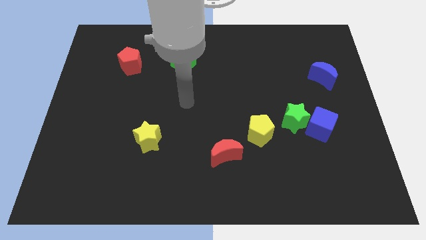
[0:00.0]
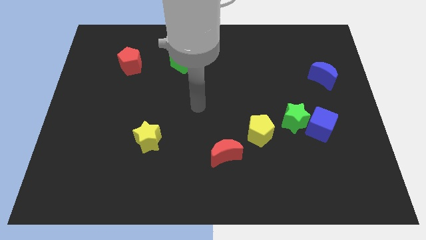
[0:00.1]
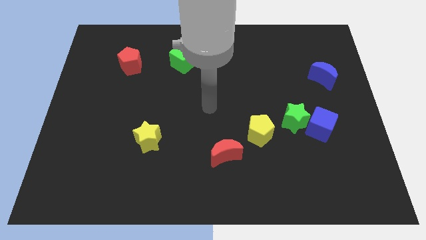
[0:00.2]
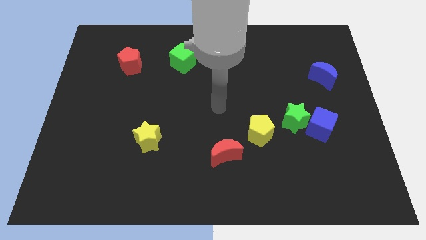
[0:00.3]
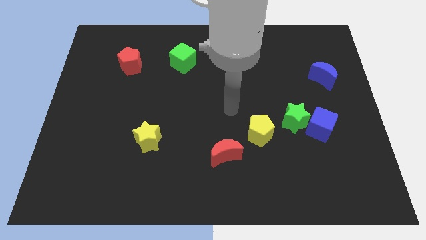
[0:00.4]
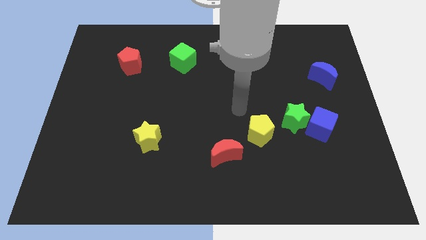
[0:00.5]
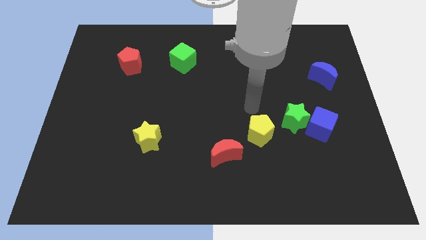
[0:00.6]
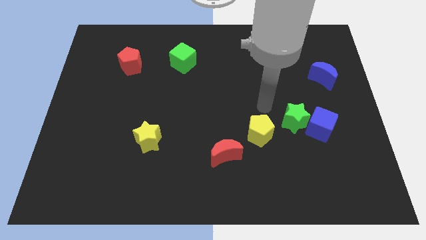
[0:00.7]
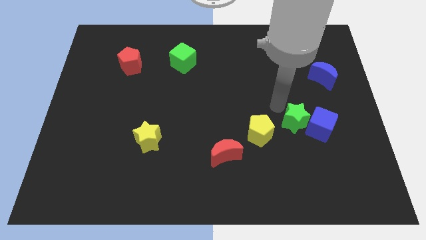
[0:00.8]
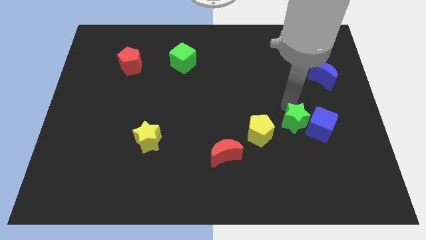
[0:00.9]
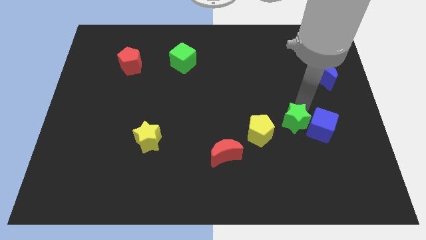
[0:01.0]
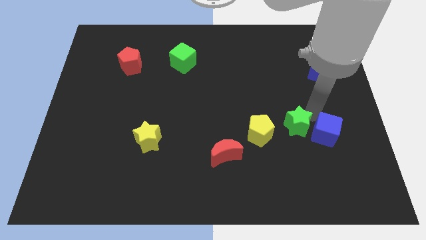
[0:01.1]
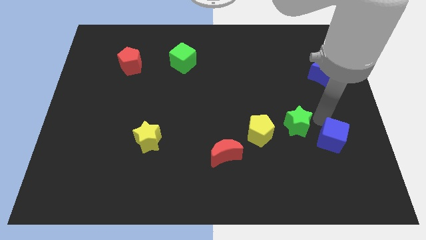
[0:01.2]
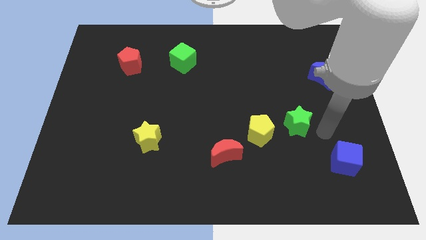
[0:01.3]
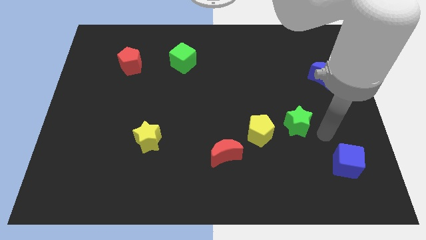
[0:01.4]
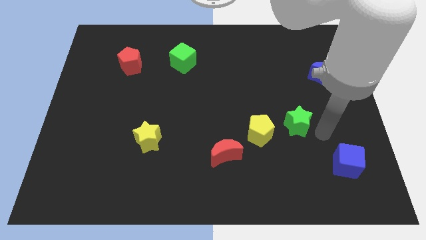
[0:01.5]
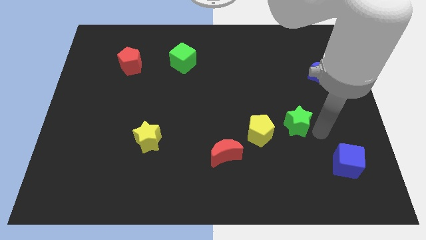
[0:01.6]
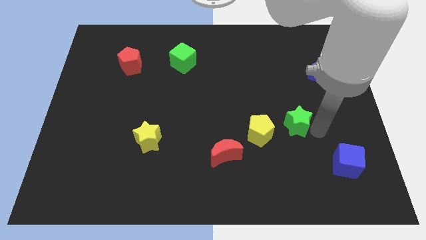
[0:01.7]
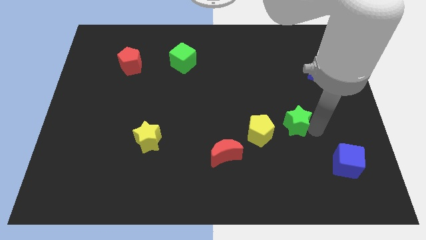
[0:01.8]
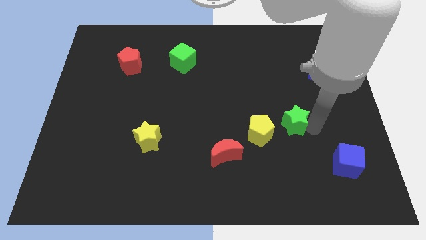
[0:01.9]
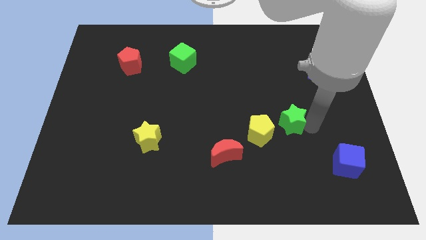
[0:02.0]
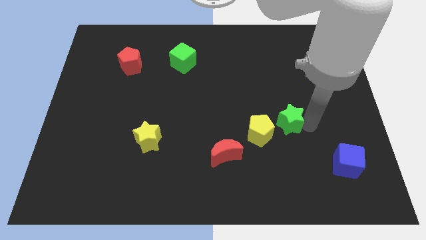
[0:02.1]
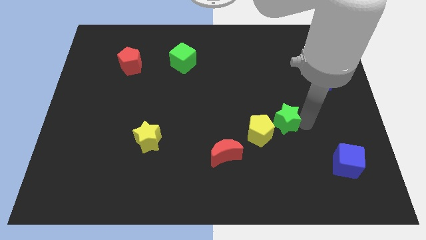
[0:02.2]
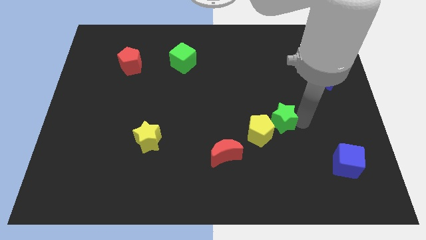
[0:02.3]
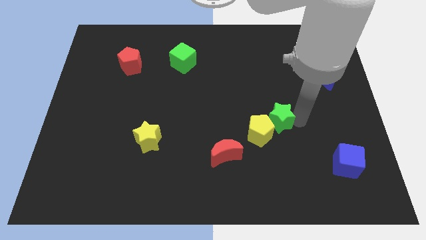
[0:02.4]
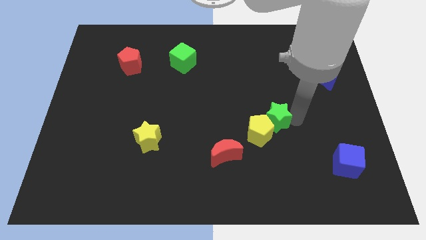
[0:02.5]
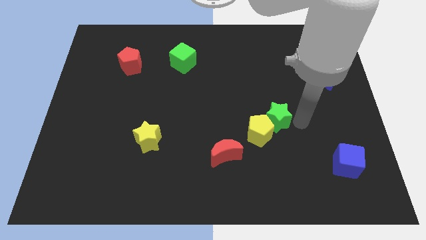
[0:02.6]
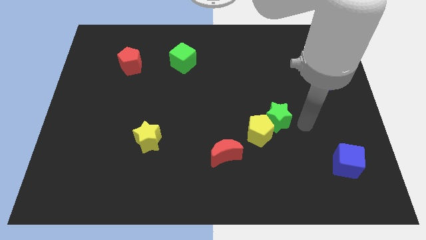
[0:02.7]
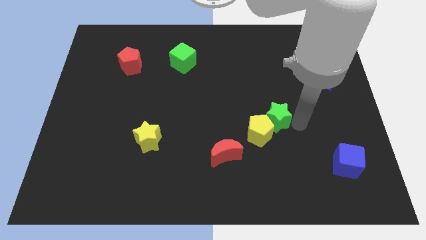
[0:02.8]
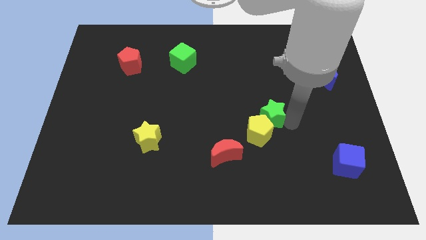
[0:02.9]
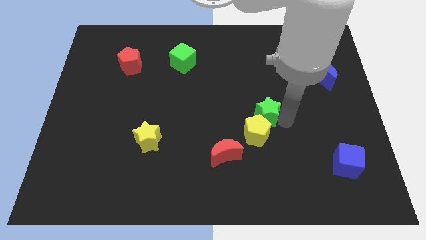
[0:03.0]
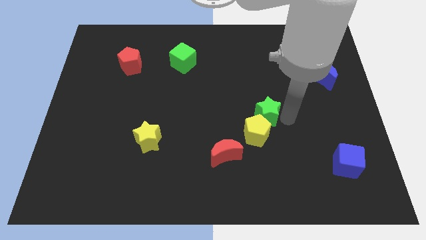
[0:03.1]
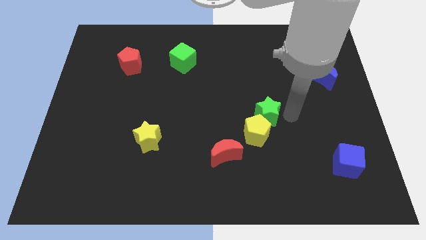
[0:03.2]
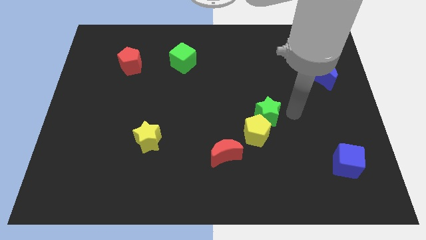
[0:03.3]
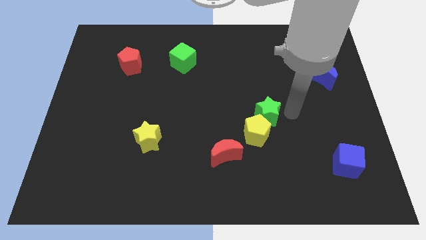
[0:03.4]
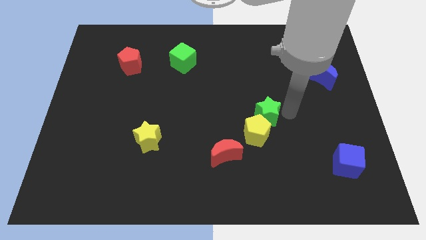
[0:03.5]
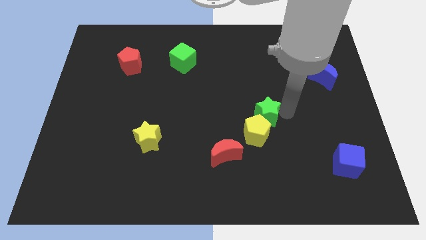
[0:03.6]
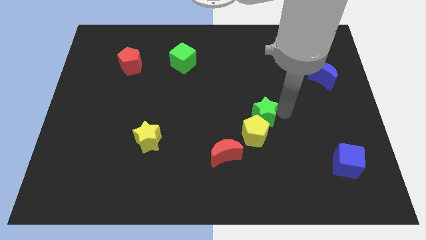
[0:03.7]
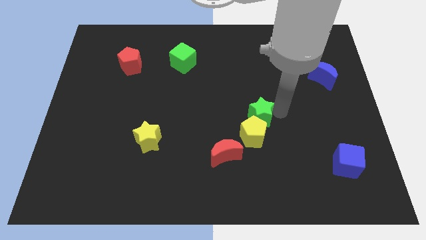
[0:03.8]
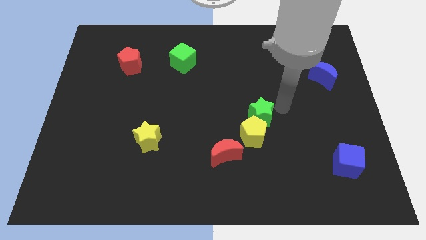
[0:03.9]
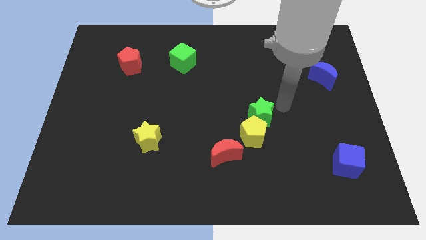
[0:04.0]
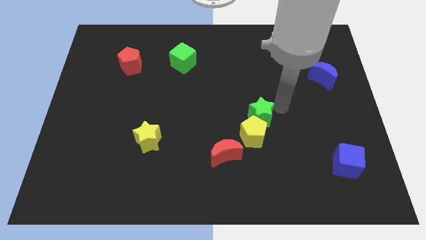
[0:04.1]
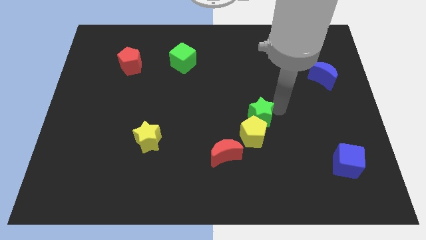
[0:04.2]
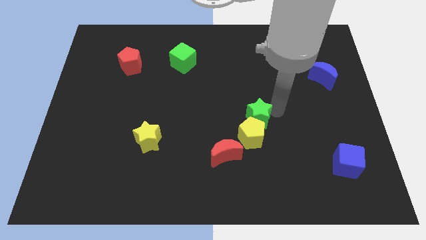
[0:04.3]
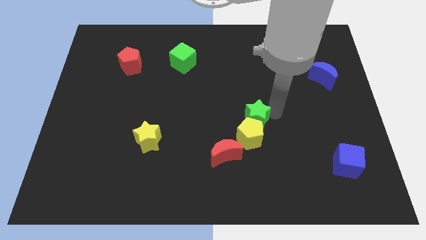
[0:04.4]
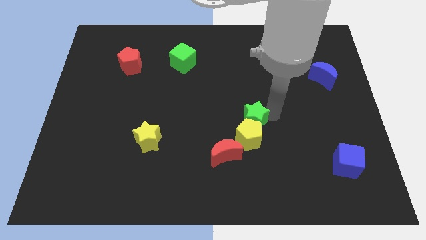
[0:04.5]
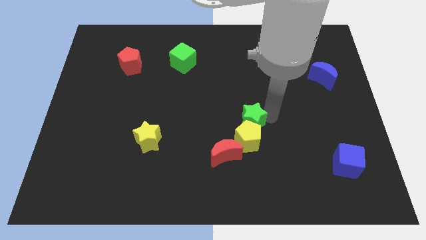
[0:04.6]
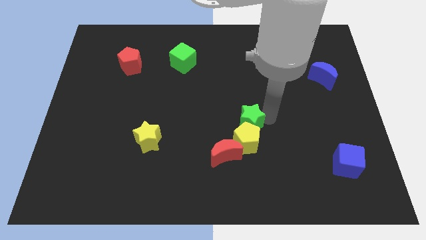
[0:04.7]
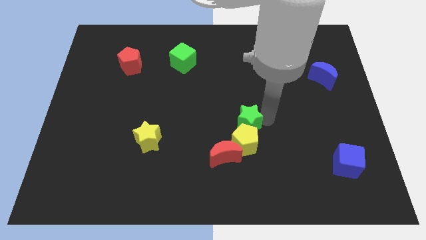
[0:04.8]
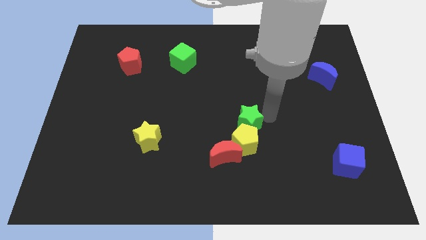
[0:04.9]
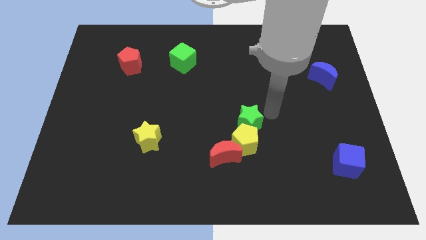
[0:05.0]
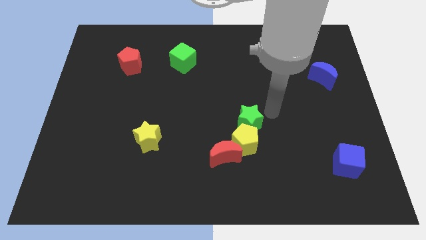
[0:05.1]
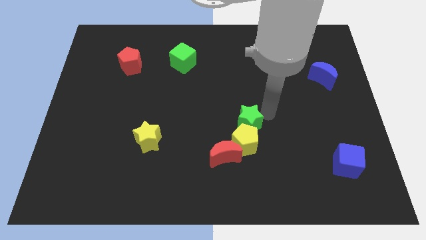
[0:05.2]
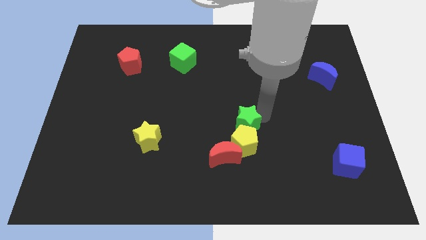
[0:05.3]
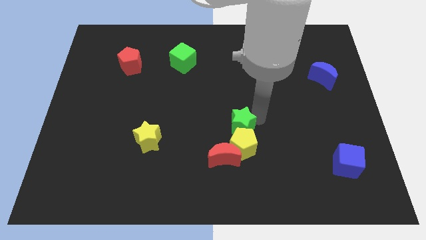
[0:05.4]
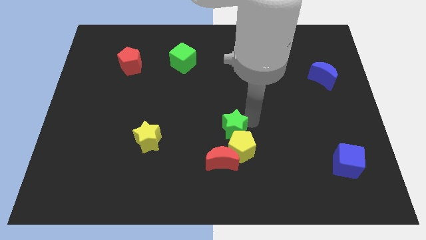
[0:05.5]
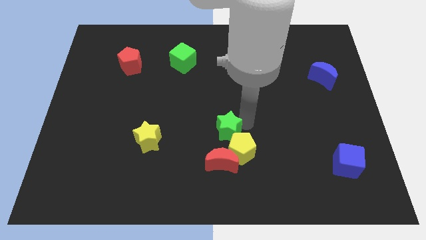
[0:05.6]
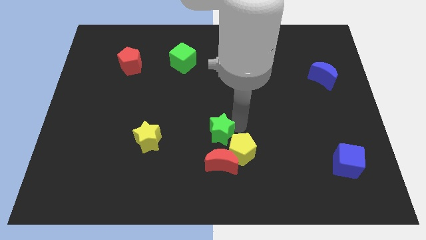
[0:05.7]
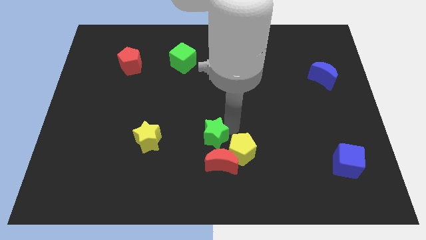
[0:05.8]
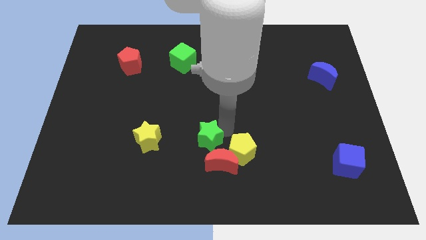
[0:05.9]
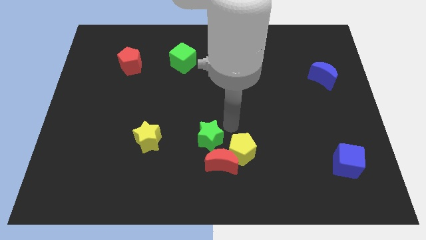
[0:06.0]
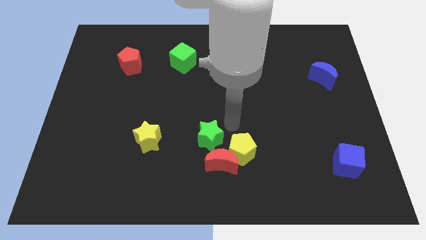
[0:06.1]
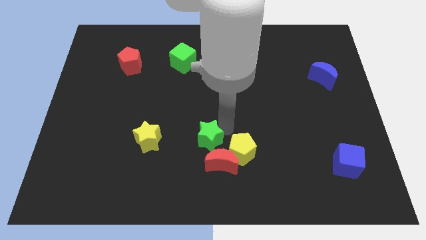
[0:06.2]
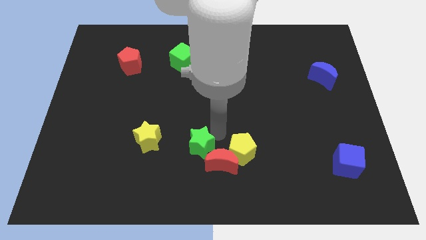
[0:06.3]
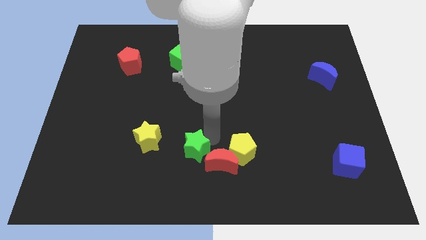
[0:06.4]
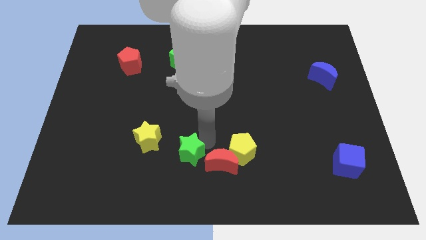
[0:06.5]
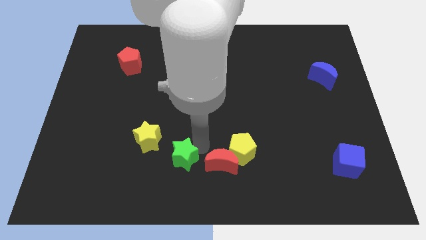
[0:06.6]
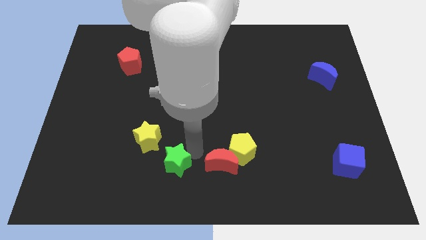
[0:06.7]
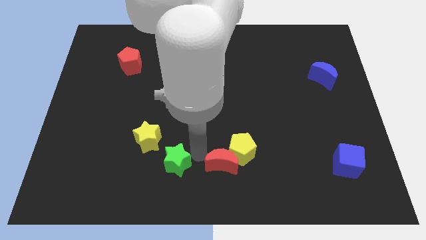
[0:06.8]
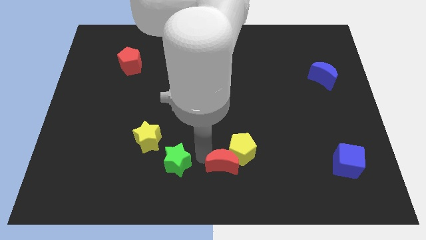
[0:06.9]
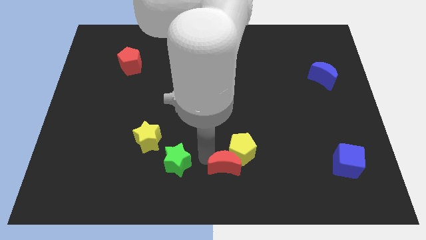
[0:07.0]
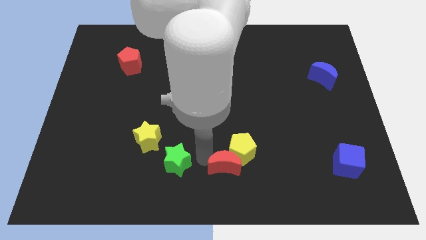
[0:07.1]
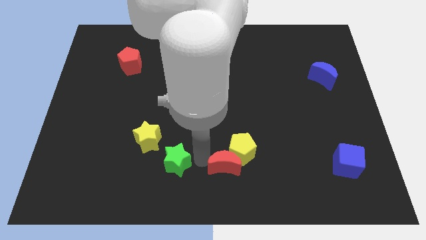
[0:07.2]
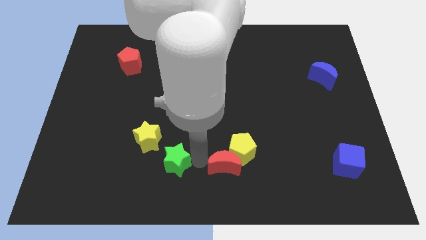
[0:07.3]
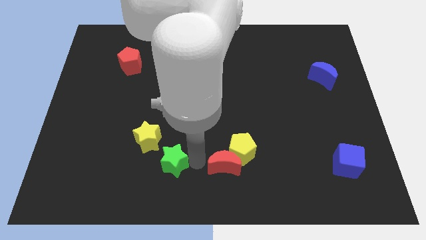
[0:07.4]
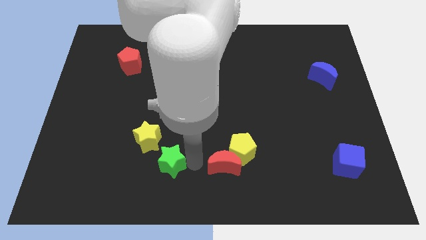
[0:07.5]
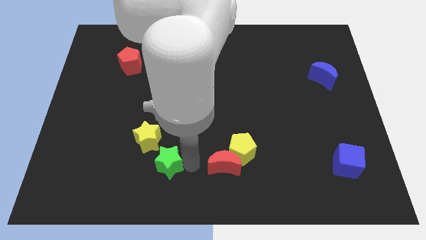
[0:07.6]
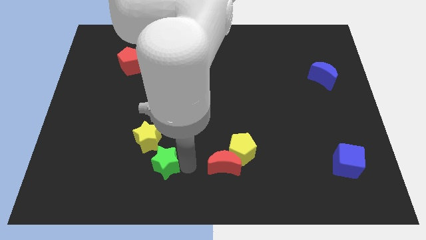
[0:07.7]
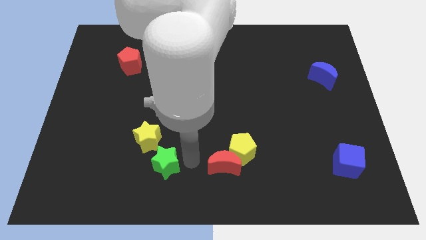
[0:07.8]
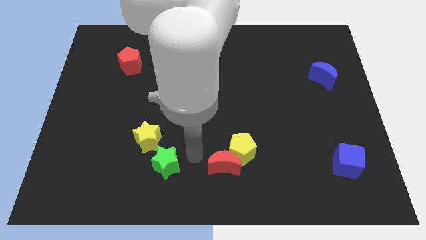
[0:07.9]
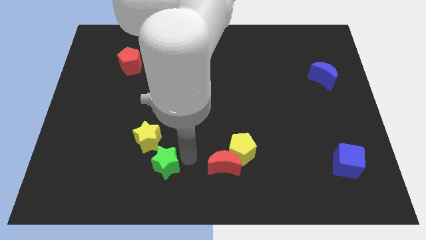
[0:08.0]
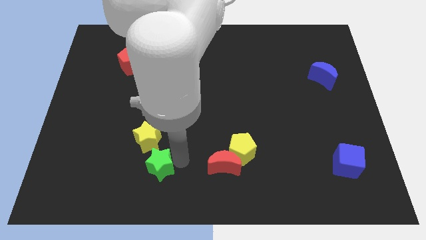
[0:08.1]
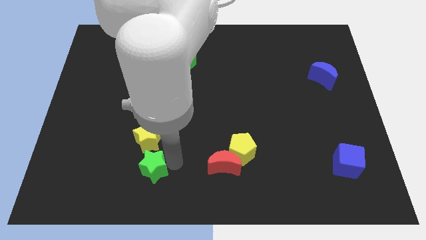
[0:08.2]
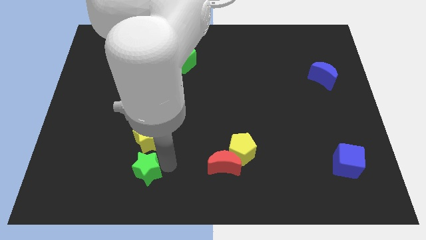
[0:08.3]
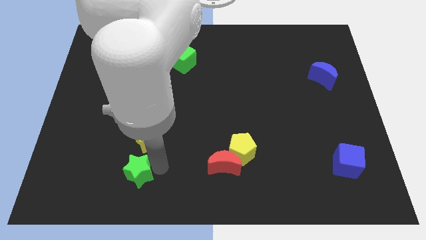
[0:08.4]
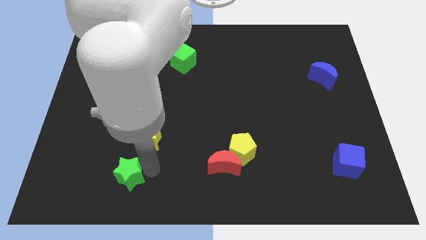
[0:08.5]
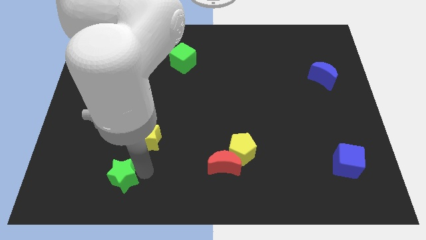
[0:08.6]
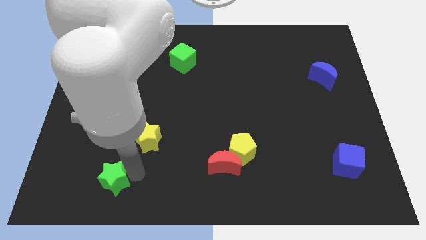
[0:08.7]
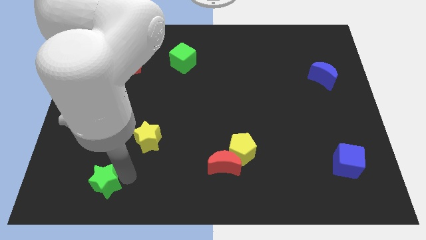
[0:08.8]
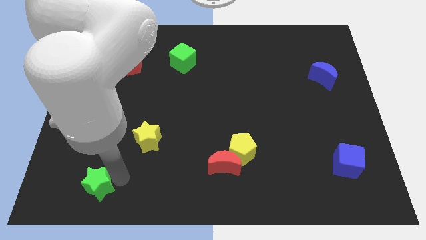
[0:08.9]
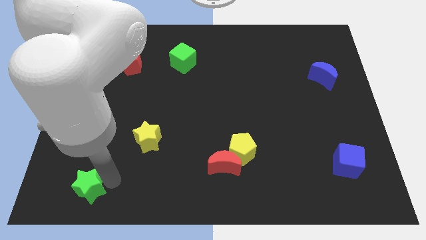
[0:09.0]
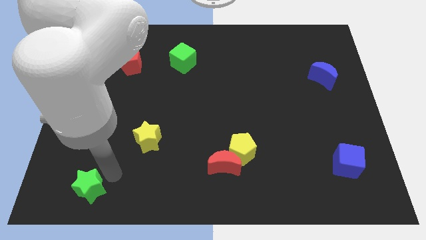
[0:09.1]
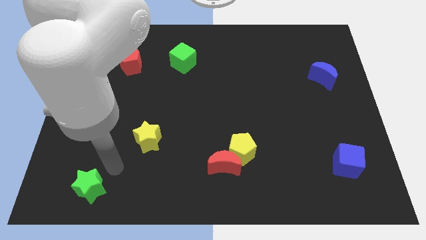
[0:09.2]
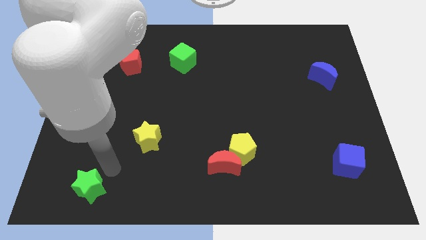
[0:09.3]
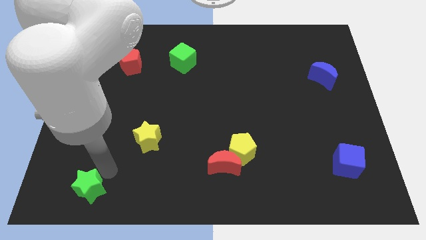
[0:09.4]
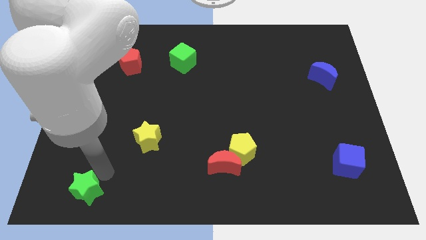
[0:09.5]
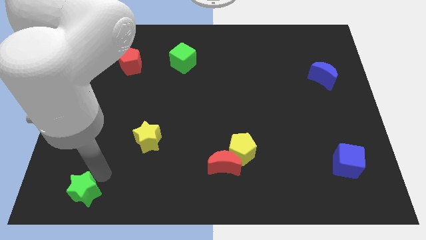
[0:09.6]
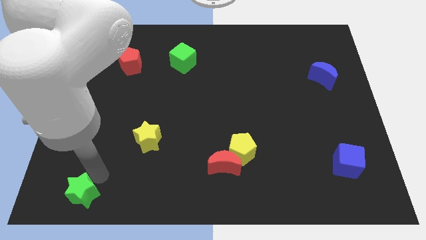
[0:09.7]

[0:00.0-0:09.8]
move the green star to the bottom left corner
